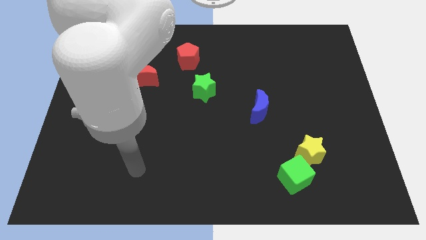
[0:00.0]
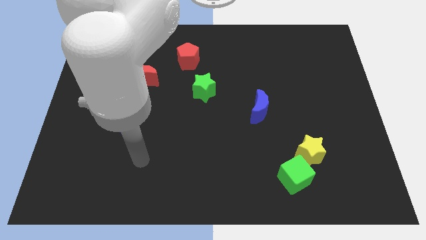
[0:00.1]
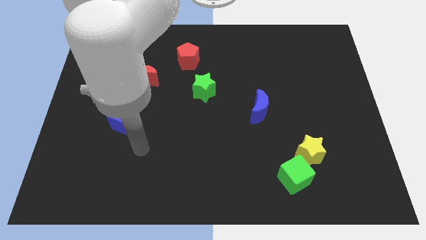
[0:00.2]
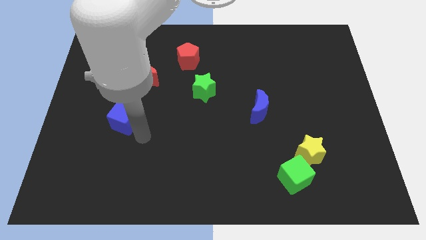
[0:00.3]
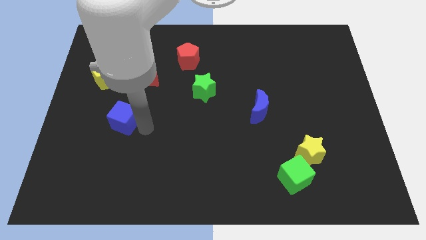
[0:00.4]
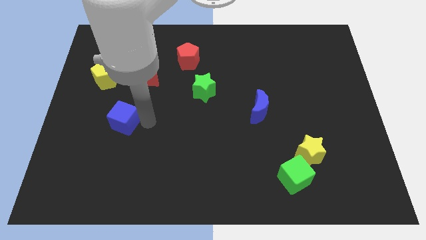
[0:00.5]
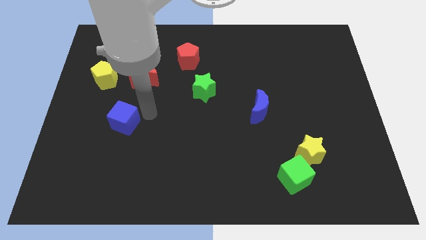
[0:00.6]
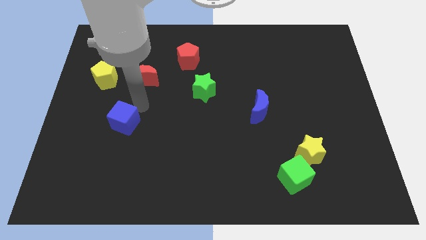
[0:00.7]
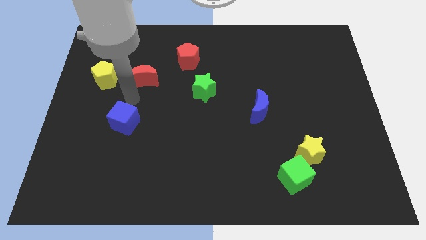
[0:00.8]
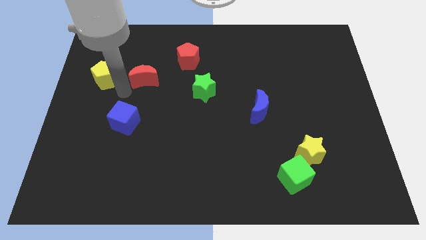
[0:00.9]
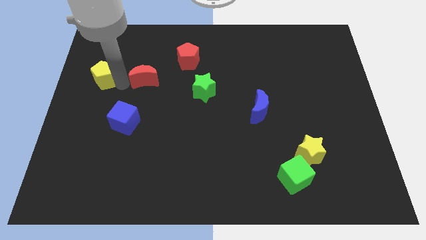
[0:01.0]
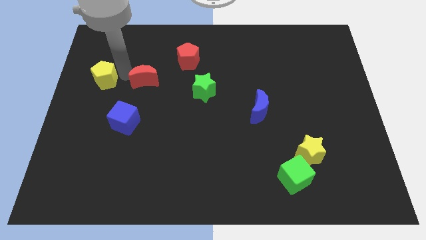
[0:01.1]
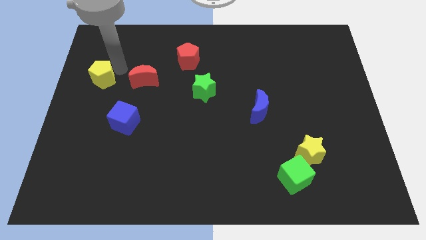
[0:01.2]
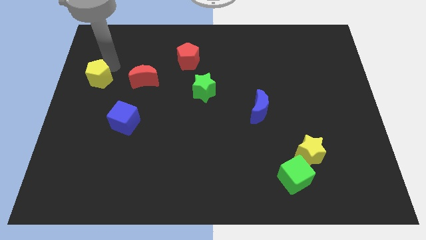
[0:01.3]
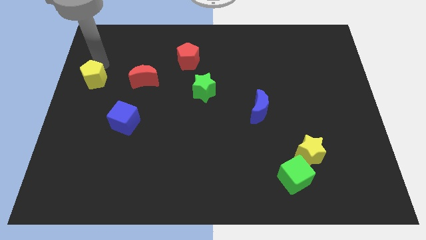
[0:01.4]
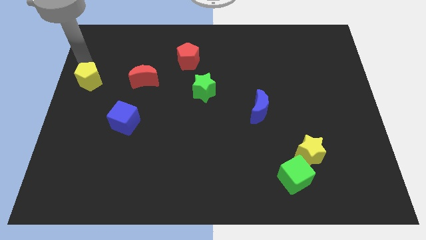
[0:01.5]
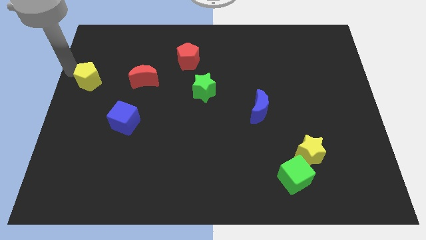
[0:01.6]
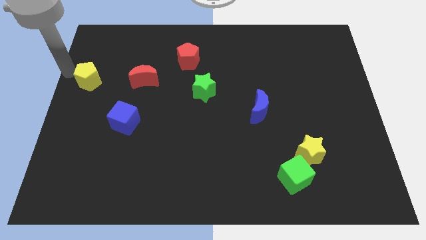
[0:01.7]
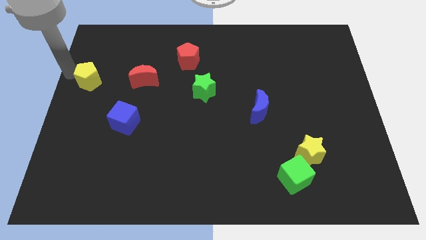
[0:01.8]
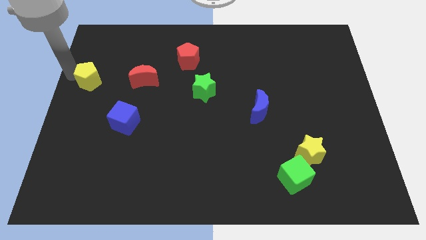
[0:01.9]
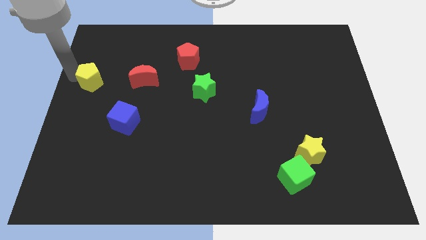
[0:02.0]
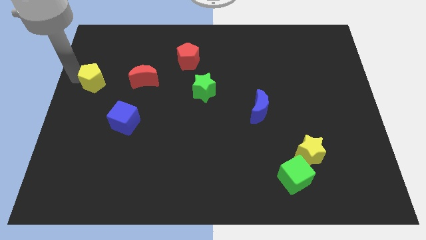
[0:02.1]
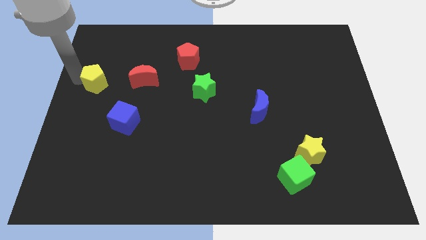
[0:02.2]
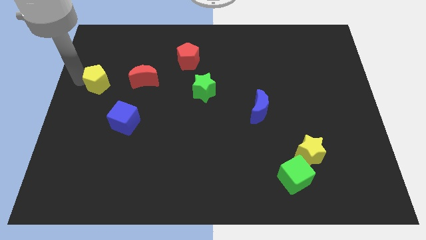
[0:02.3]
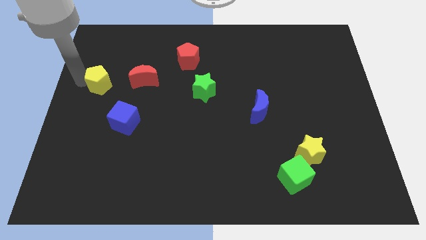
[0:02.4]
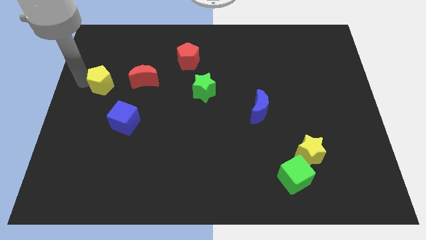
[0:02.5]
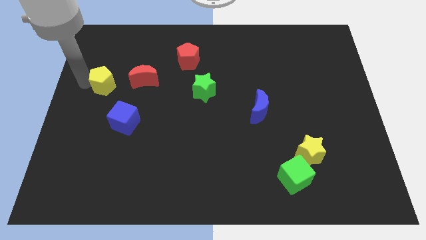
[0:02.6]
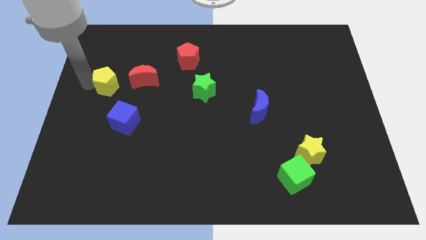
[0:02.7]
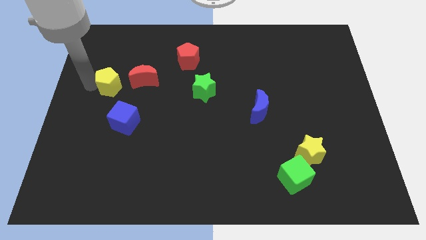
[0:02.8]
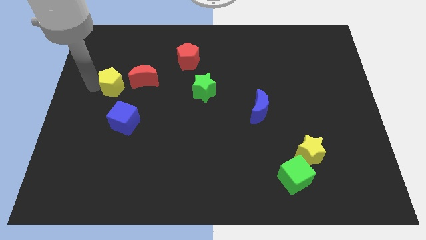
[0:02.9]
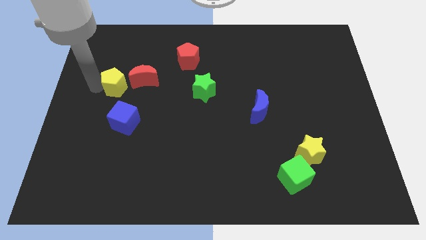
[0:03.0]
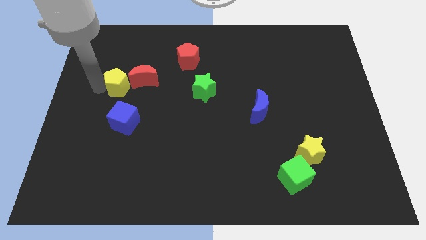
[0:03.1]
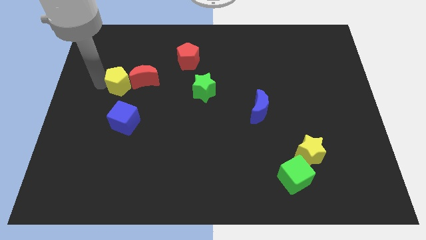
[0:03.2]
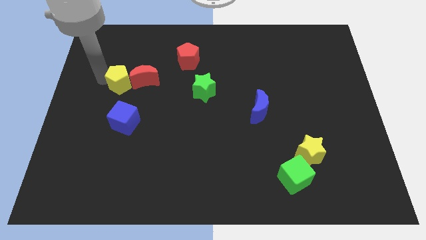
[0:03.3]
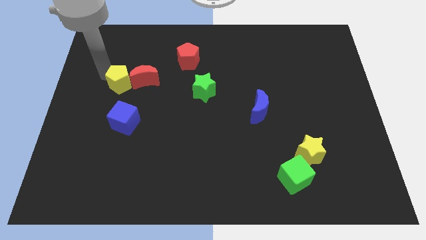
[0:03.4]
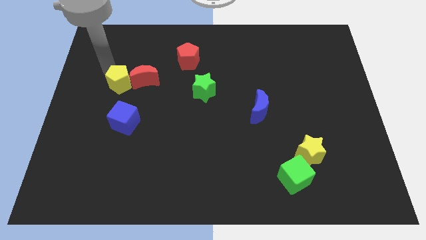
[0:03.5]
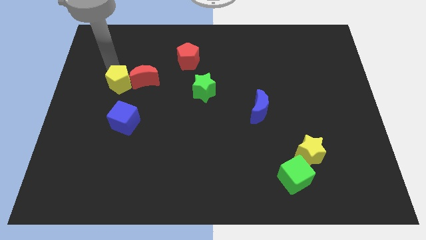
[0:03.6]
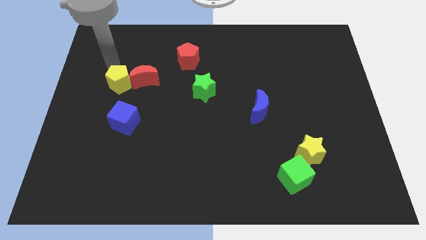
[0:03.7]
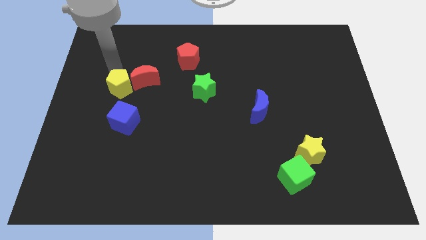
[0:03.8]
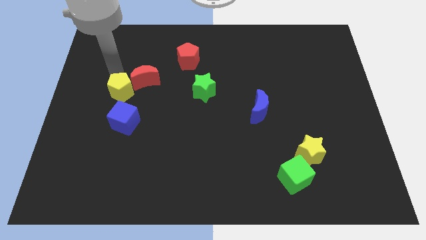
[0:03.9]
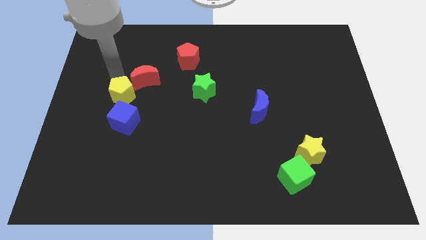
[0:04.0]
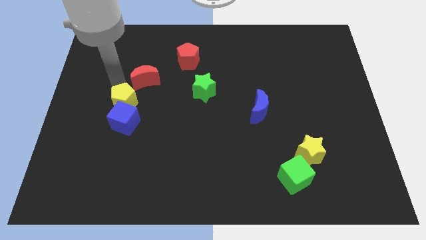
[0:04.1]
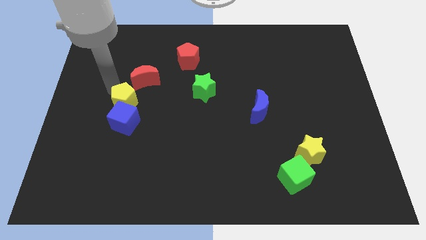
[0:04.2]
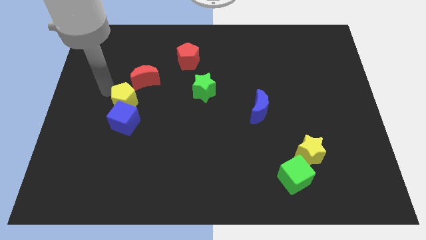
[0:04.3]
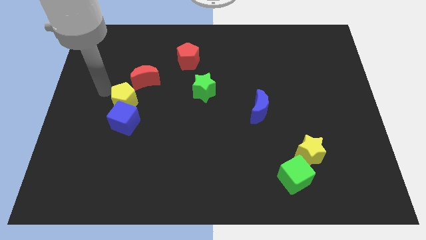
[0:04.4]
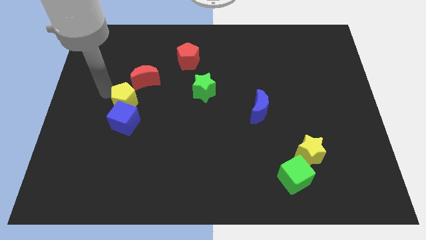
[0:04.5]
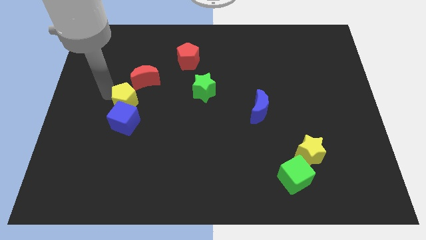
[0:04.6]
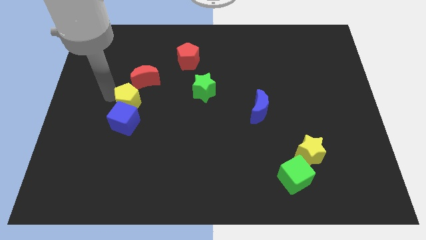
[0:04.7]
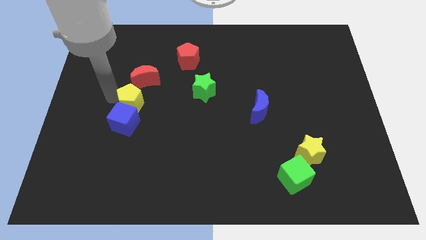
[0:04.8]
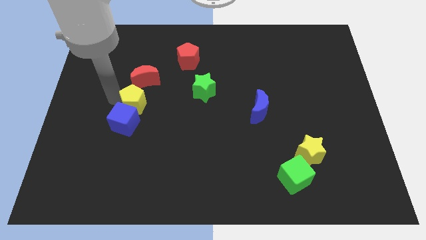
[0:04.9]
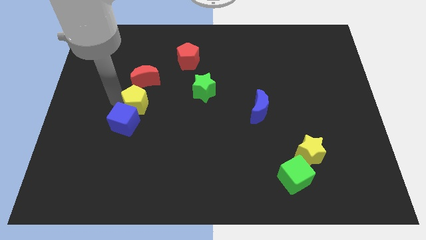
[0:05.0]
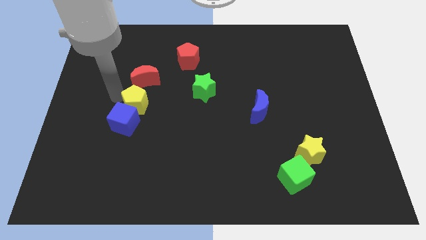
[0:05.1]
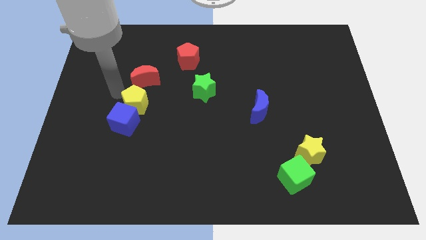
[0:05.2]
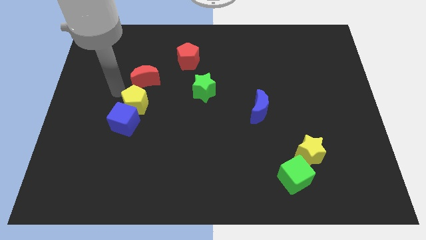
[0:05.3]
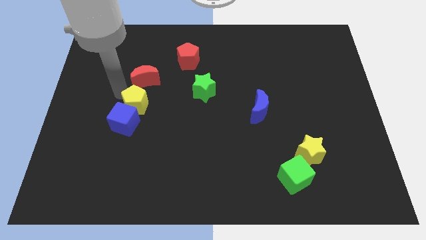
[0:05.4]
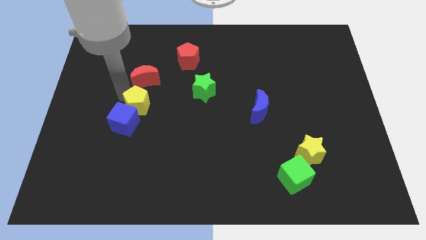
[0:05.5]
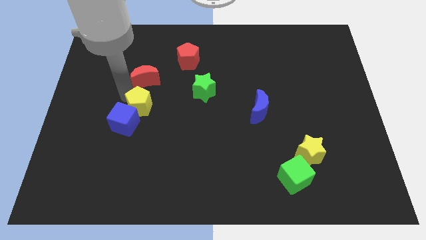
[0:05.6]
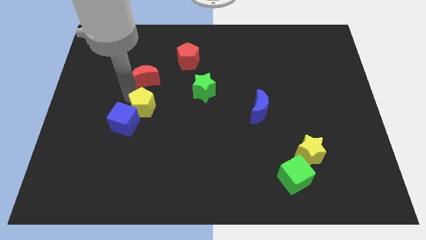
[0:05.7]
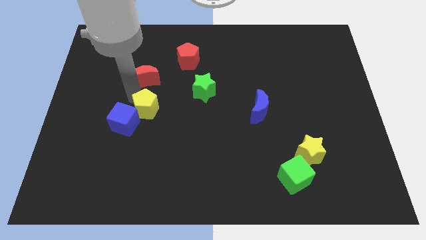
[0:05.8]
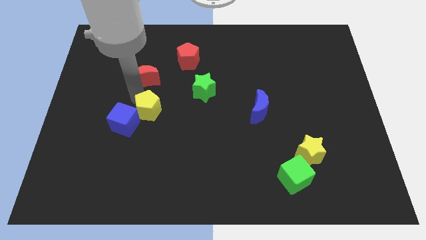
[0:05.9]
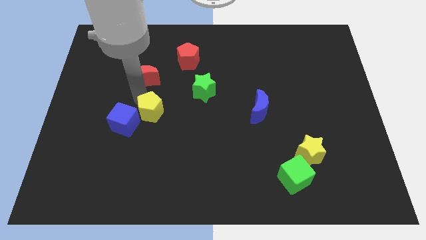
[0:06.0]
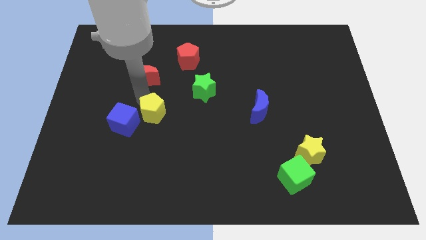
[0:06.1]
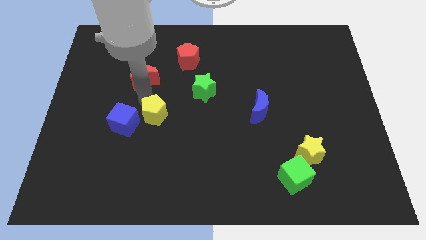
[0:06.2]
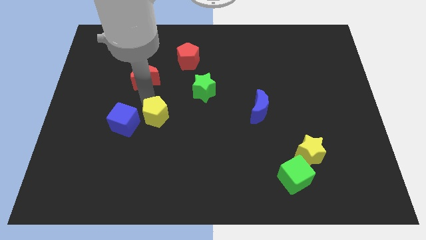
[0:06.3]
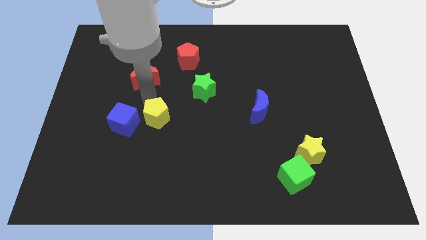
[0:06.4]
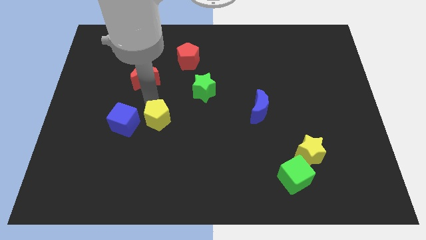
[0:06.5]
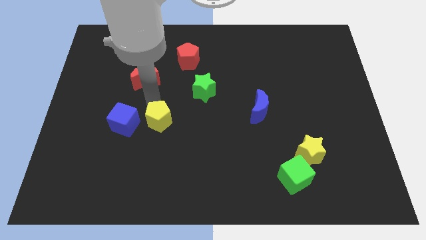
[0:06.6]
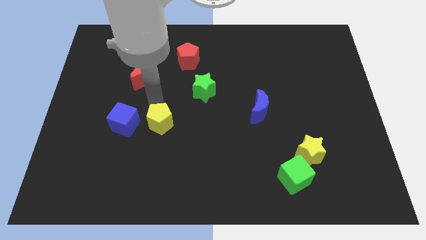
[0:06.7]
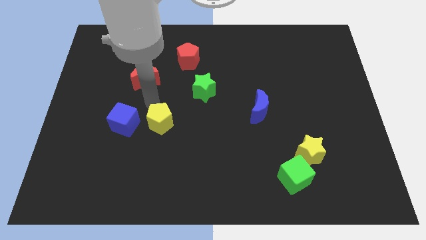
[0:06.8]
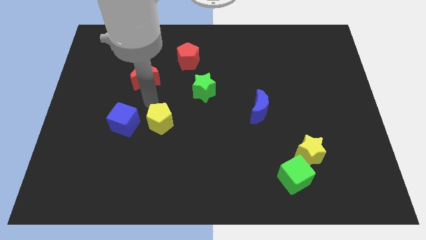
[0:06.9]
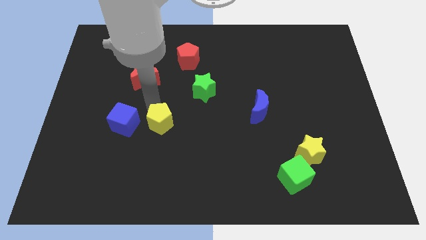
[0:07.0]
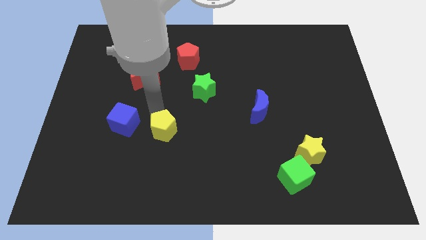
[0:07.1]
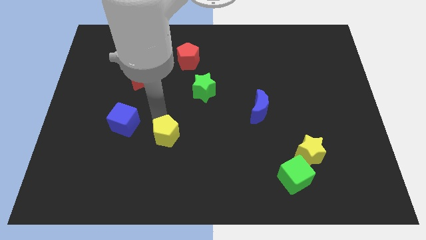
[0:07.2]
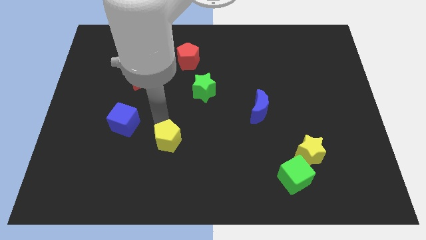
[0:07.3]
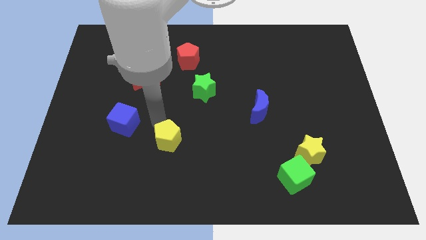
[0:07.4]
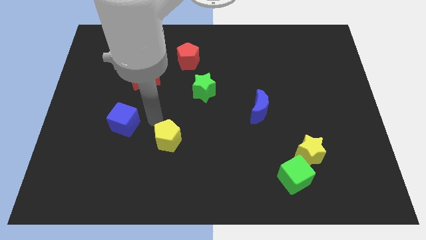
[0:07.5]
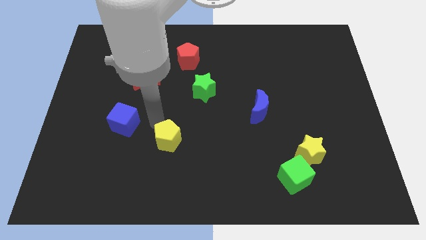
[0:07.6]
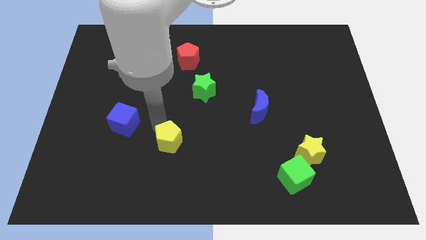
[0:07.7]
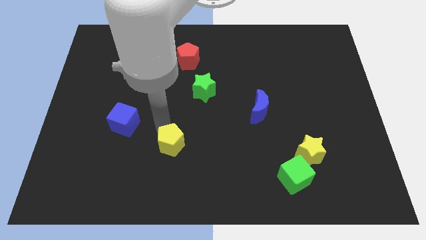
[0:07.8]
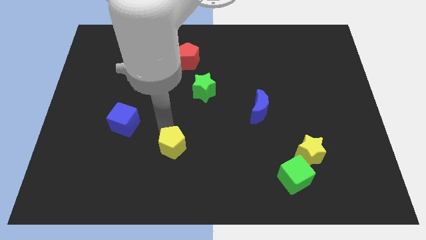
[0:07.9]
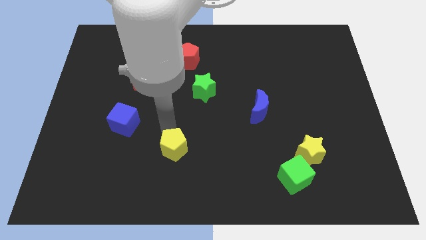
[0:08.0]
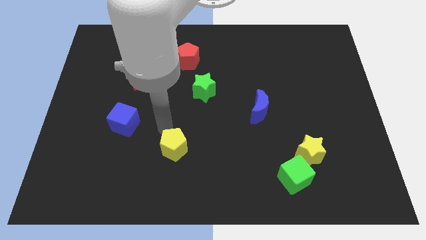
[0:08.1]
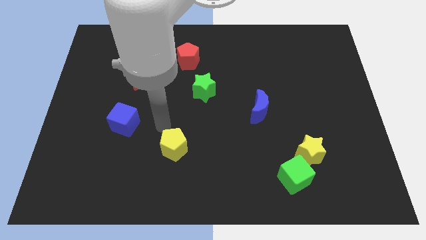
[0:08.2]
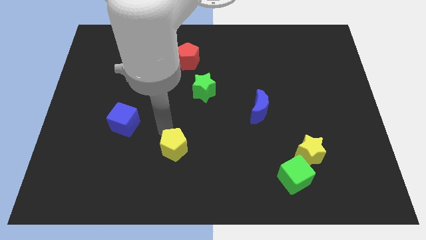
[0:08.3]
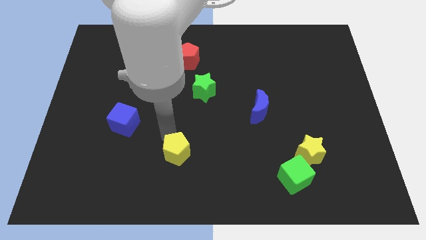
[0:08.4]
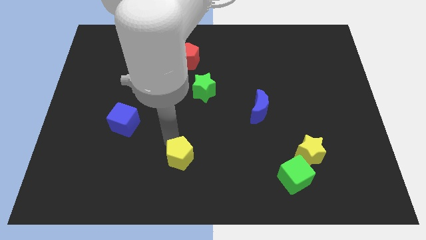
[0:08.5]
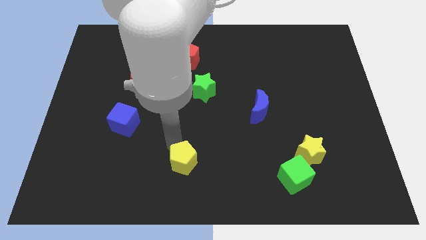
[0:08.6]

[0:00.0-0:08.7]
push the yellow pentagon to the bottom side
